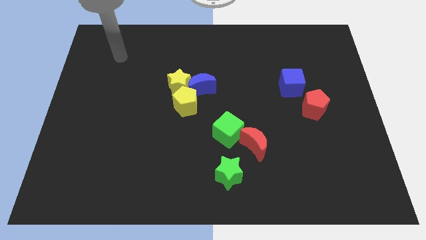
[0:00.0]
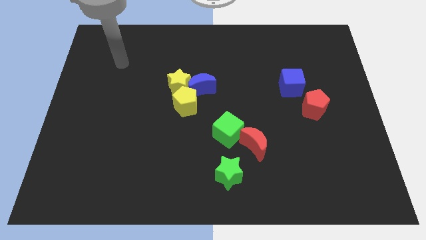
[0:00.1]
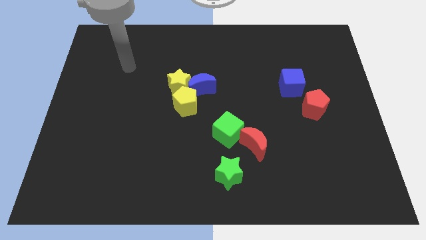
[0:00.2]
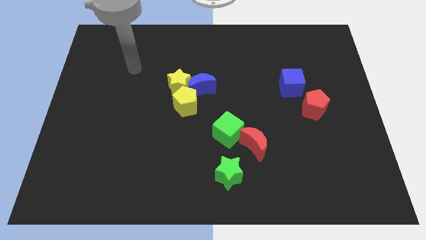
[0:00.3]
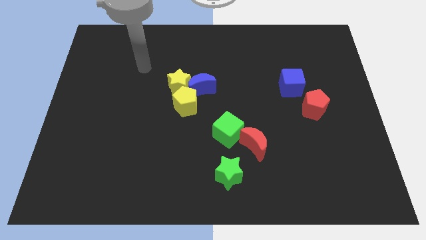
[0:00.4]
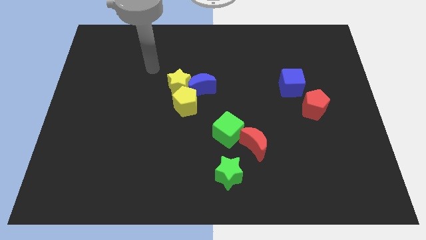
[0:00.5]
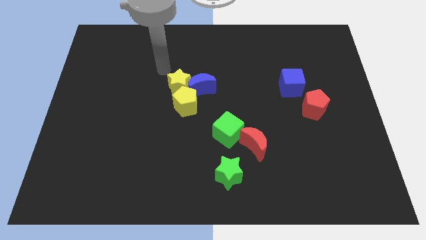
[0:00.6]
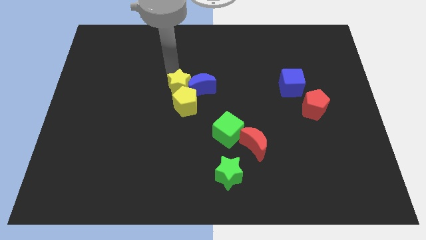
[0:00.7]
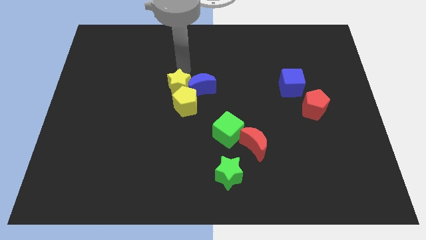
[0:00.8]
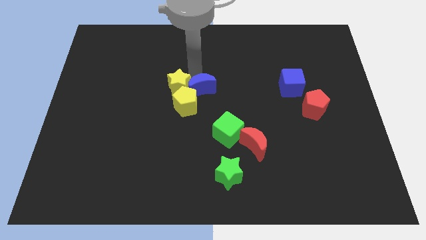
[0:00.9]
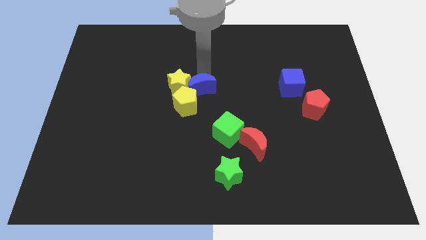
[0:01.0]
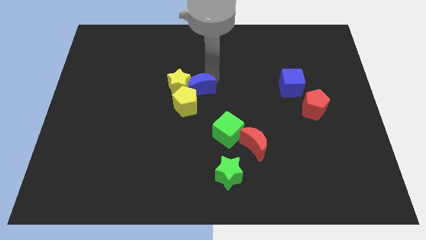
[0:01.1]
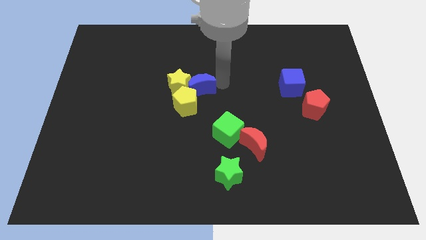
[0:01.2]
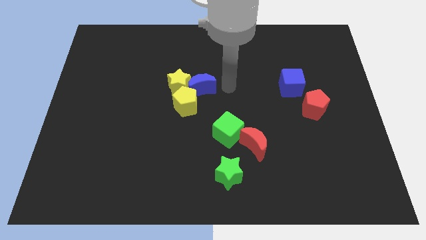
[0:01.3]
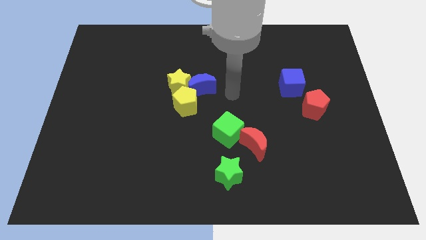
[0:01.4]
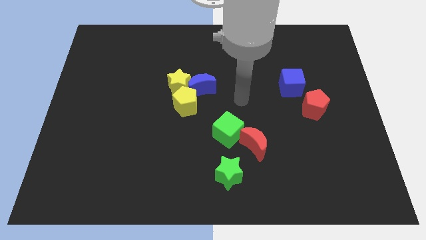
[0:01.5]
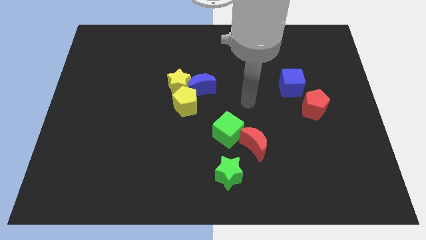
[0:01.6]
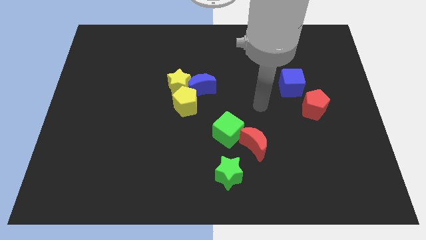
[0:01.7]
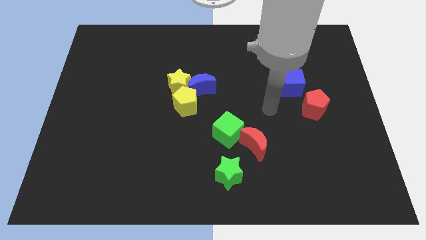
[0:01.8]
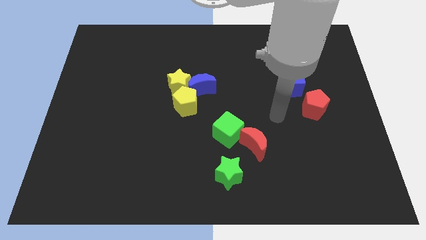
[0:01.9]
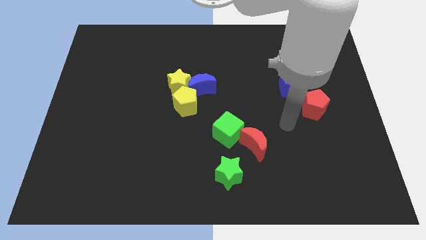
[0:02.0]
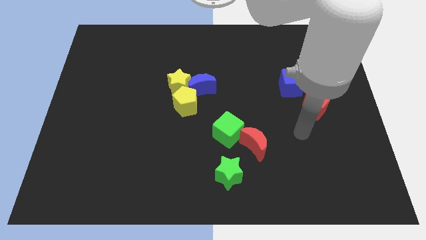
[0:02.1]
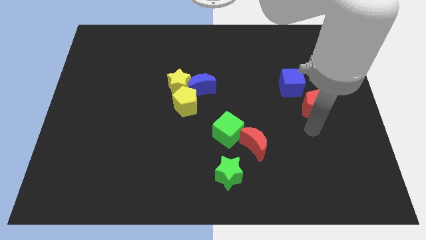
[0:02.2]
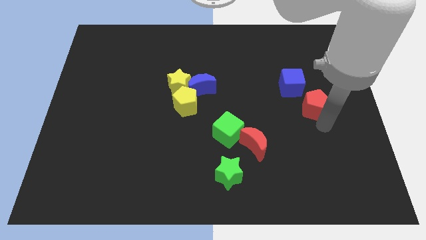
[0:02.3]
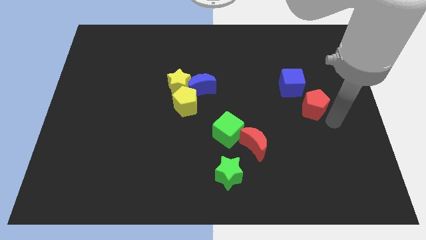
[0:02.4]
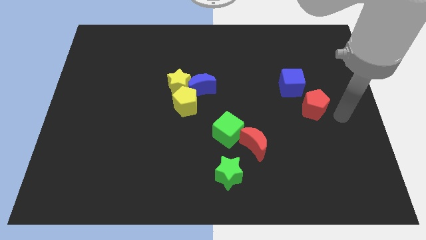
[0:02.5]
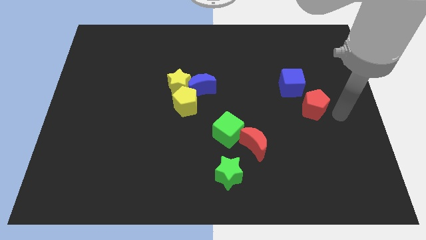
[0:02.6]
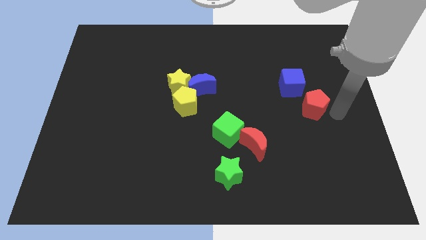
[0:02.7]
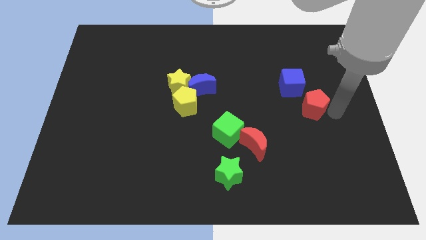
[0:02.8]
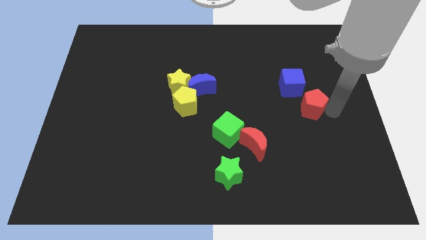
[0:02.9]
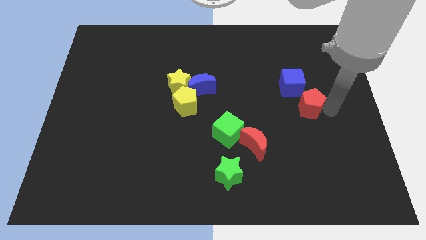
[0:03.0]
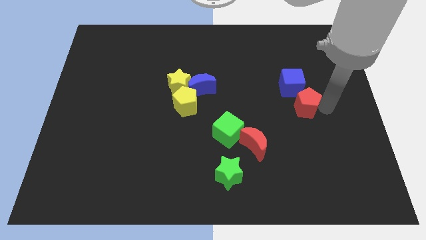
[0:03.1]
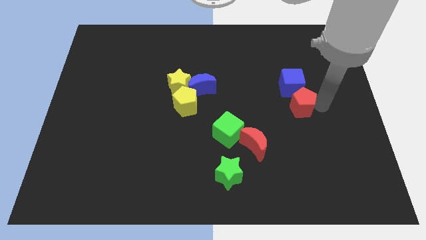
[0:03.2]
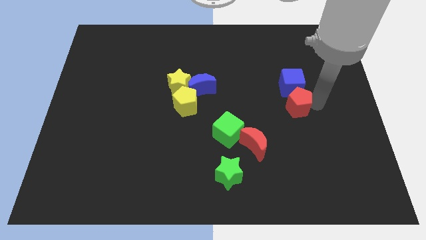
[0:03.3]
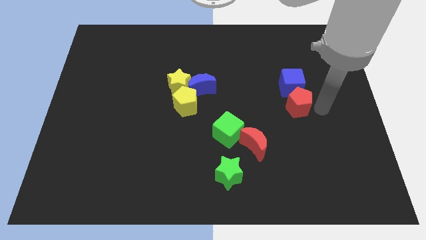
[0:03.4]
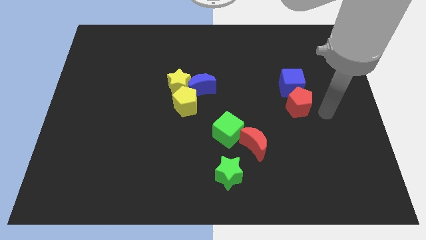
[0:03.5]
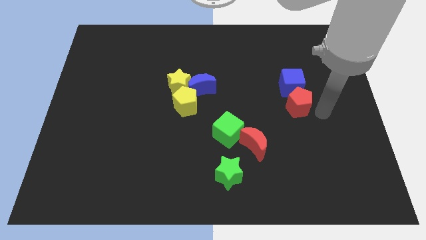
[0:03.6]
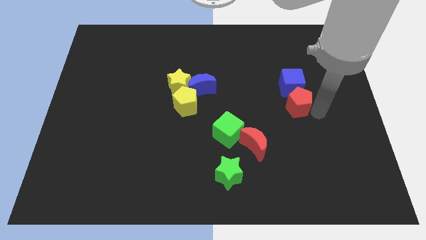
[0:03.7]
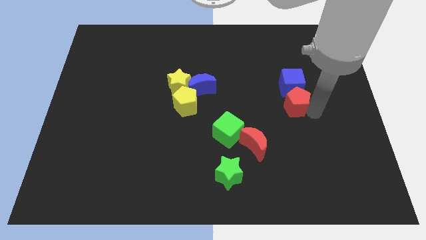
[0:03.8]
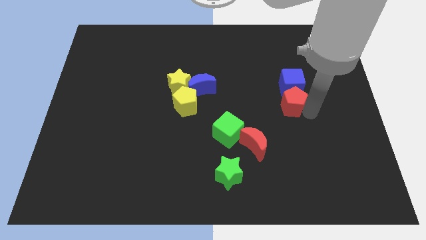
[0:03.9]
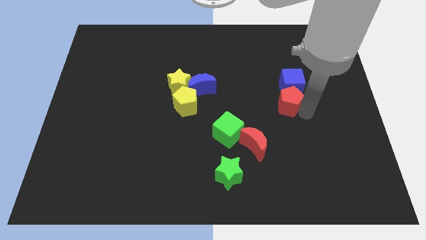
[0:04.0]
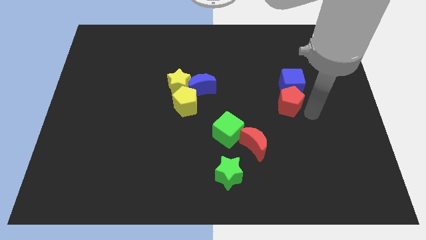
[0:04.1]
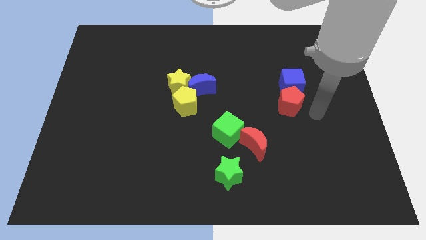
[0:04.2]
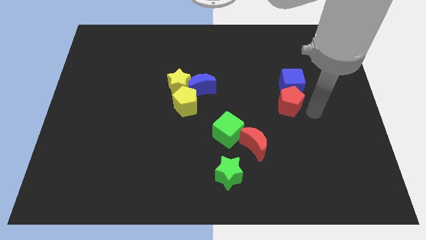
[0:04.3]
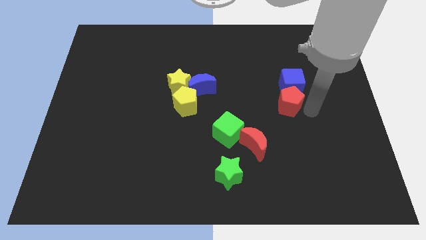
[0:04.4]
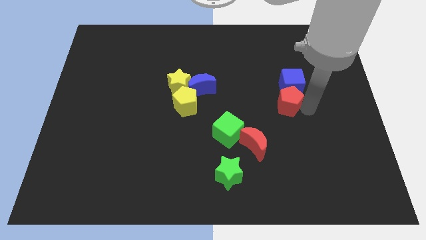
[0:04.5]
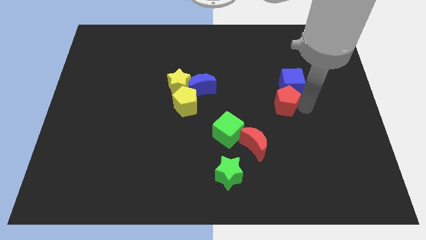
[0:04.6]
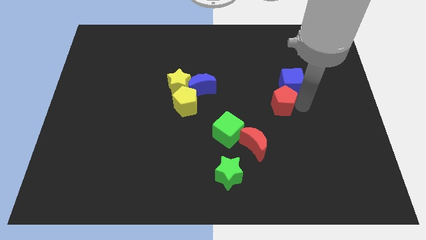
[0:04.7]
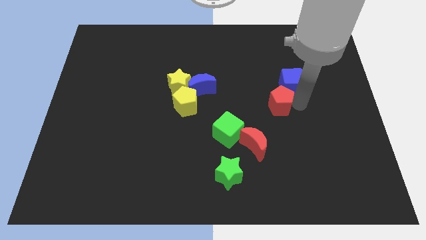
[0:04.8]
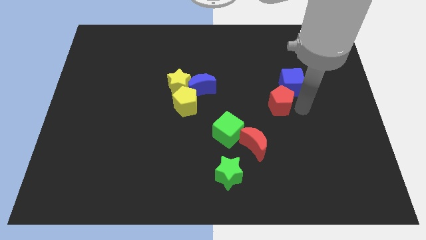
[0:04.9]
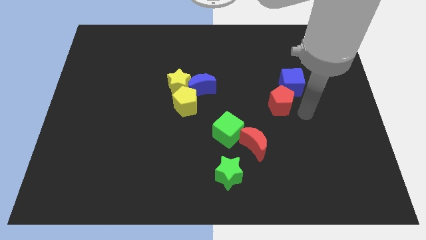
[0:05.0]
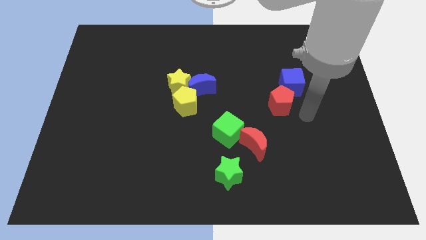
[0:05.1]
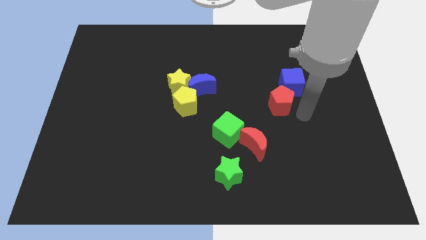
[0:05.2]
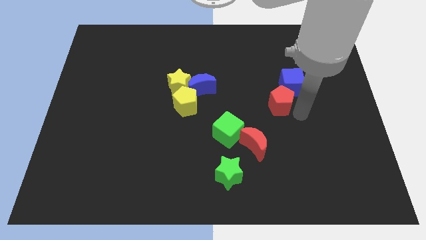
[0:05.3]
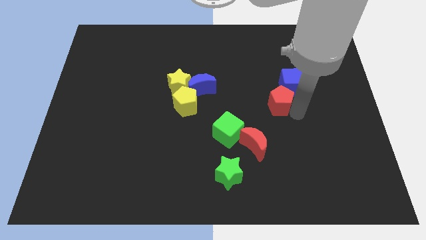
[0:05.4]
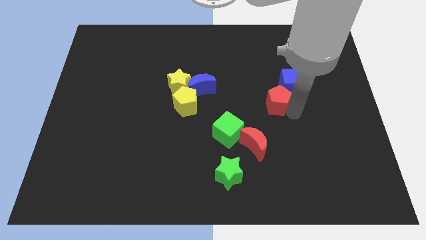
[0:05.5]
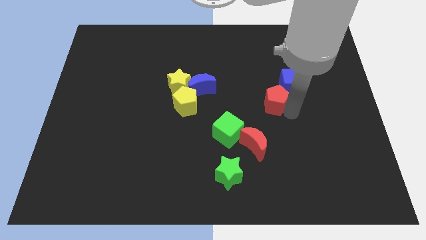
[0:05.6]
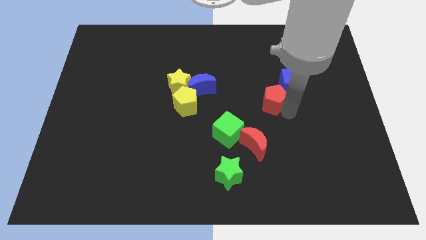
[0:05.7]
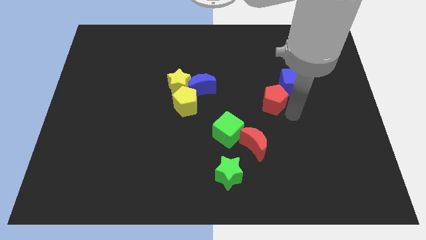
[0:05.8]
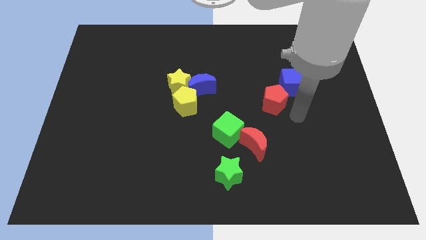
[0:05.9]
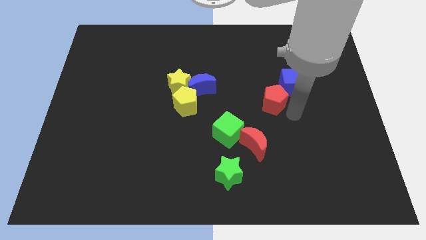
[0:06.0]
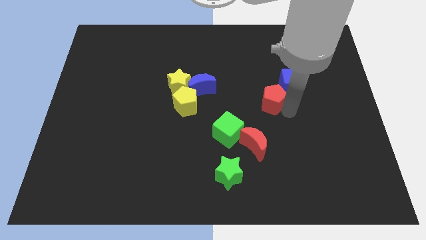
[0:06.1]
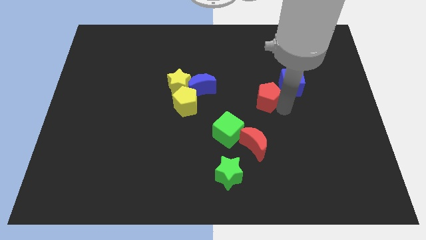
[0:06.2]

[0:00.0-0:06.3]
put the red pentagon just left of the blue cube

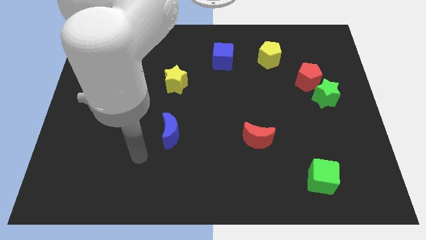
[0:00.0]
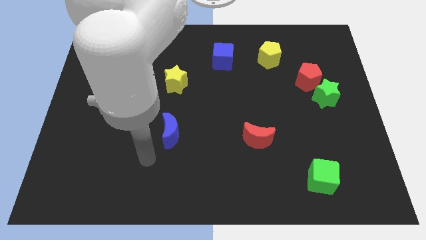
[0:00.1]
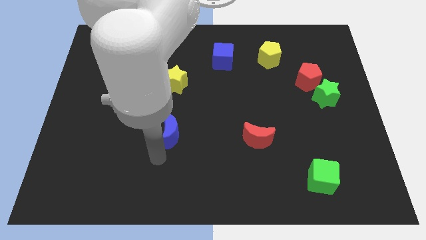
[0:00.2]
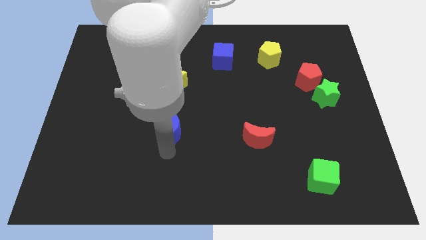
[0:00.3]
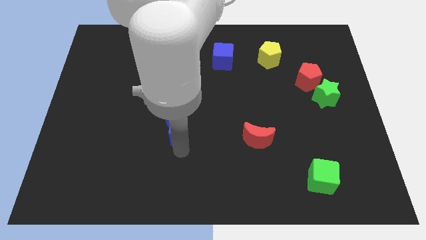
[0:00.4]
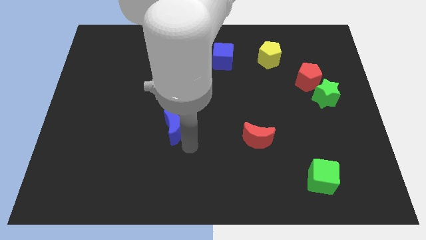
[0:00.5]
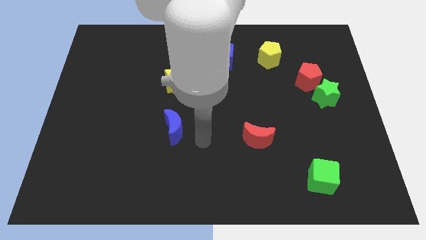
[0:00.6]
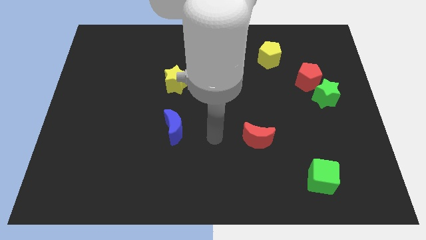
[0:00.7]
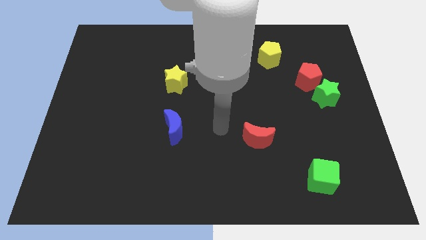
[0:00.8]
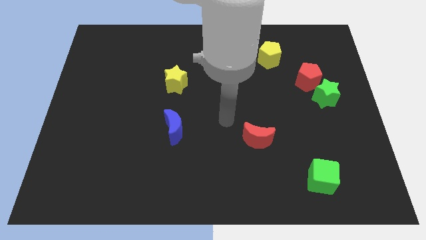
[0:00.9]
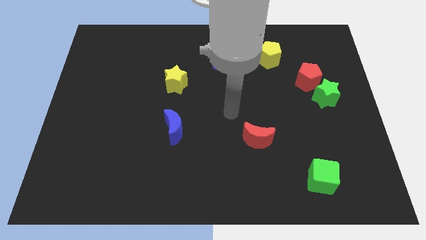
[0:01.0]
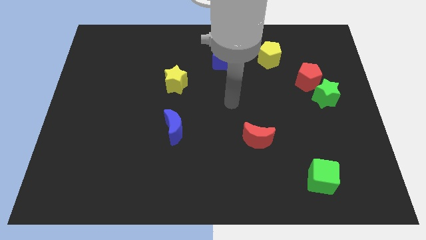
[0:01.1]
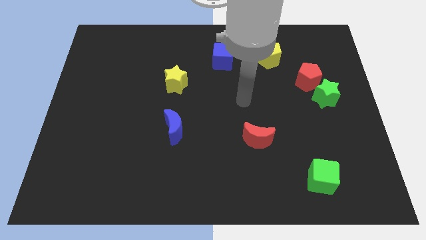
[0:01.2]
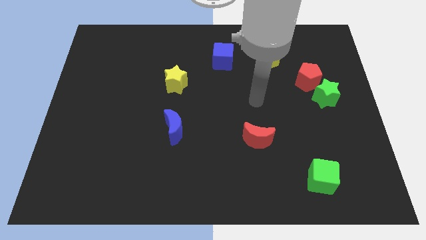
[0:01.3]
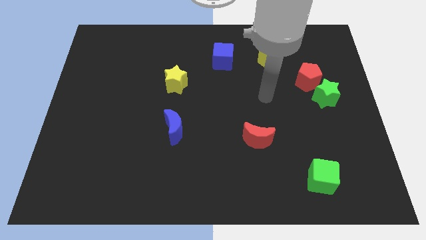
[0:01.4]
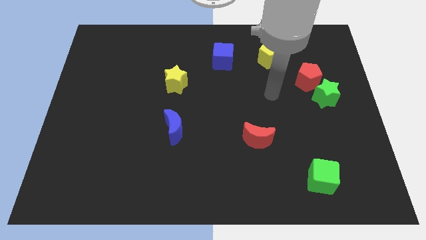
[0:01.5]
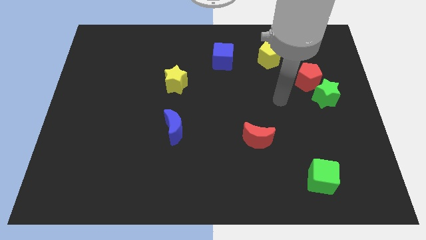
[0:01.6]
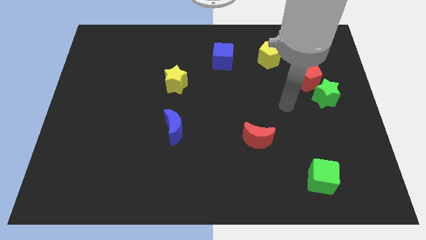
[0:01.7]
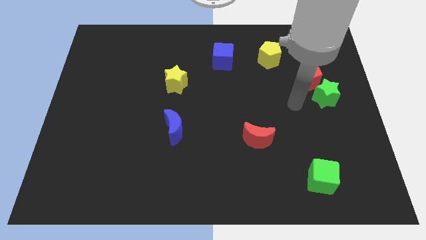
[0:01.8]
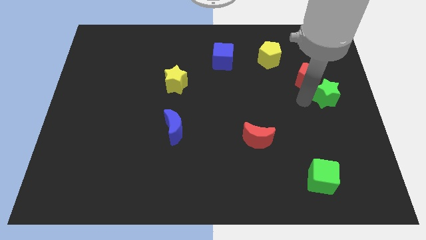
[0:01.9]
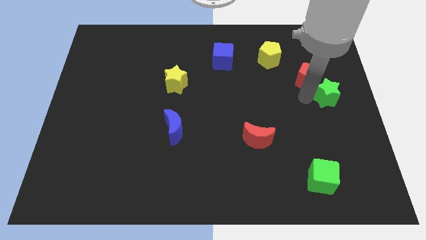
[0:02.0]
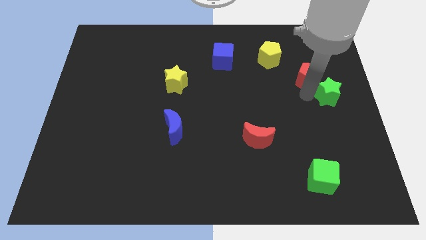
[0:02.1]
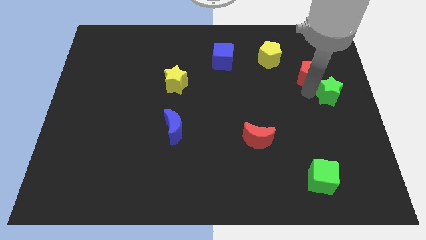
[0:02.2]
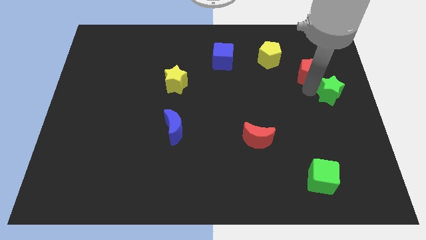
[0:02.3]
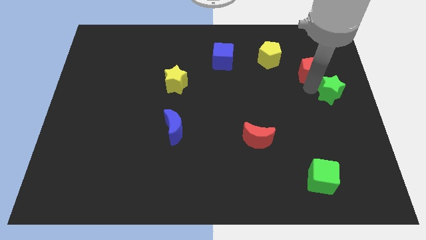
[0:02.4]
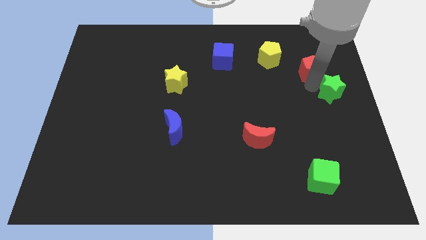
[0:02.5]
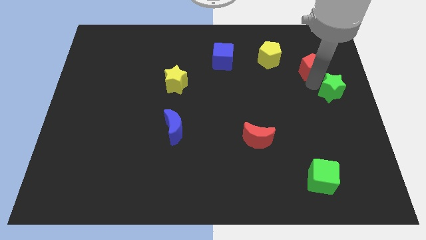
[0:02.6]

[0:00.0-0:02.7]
slide the red pentagon just right of the yellow pentagon
